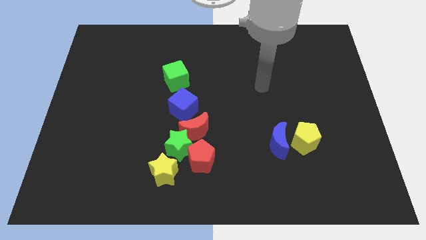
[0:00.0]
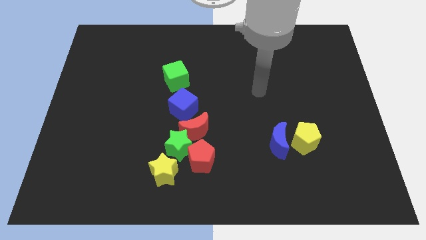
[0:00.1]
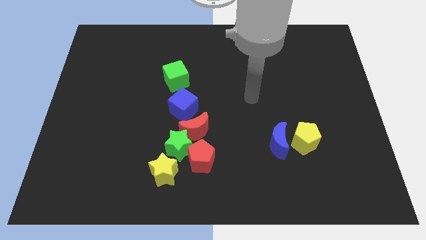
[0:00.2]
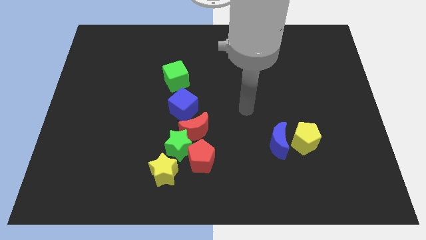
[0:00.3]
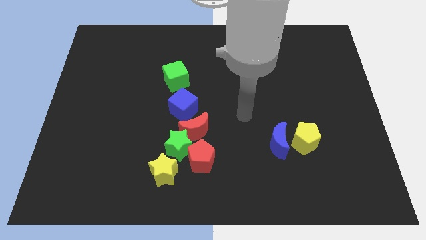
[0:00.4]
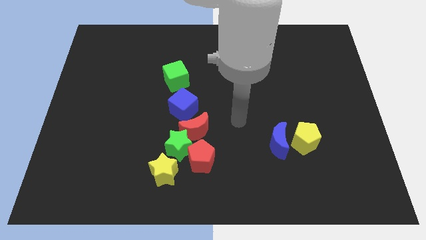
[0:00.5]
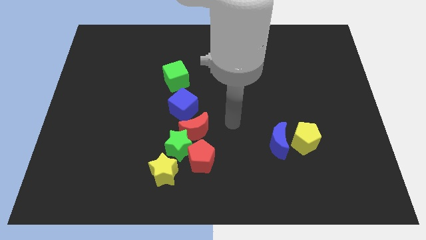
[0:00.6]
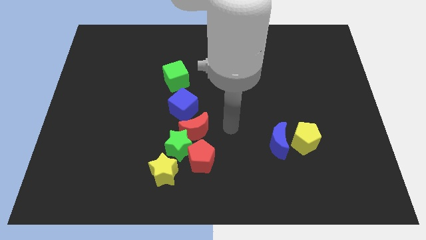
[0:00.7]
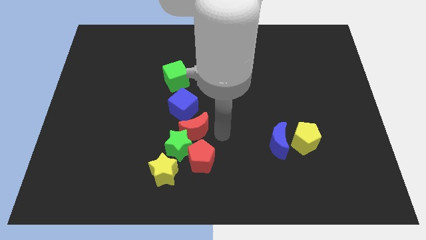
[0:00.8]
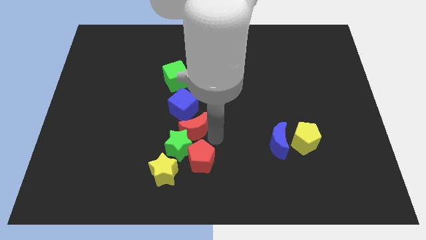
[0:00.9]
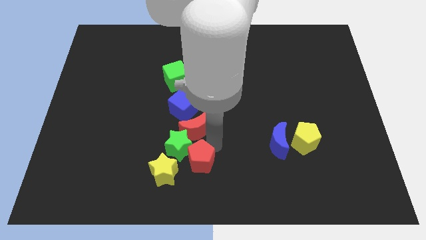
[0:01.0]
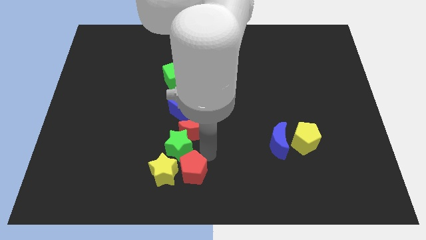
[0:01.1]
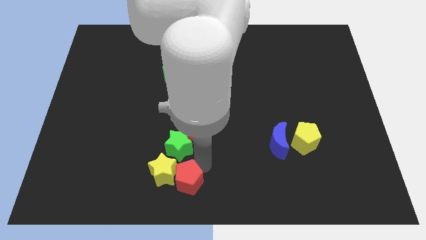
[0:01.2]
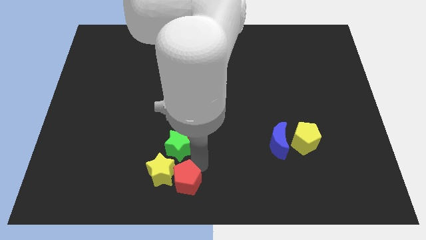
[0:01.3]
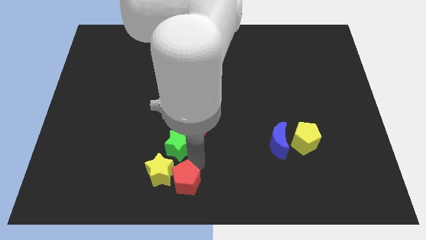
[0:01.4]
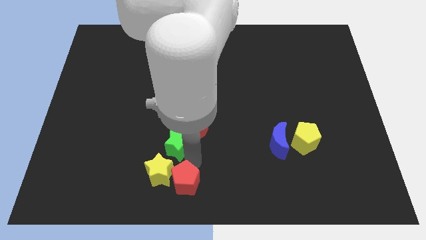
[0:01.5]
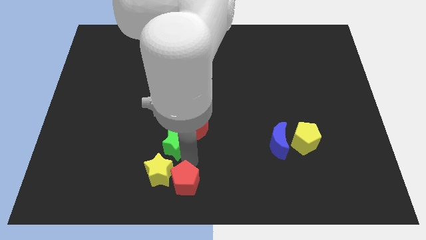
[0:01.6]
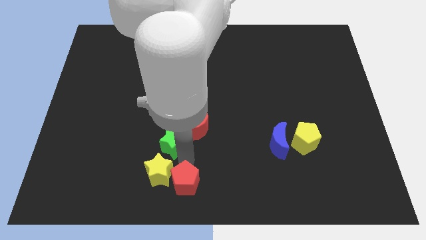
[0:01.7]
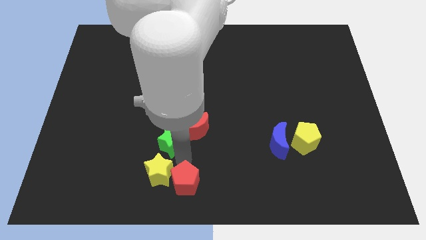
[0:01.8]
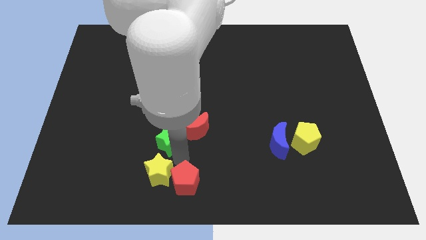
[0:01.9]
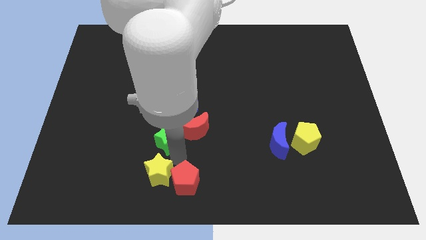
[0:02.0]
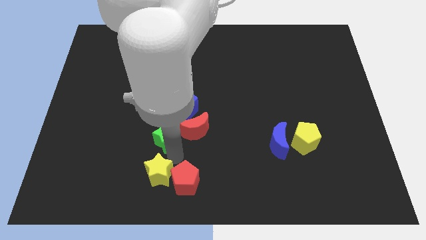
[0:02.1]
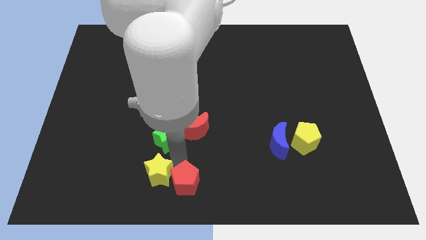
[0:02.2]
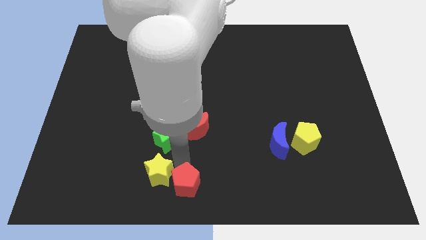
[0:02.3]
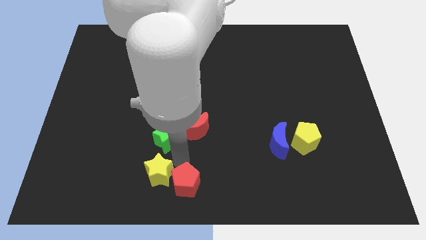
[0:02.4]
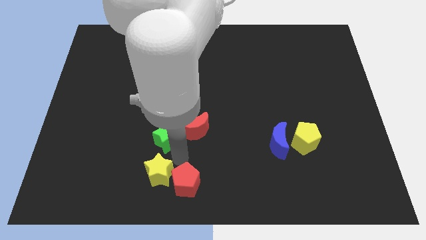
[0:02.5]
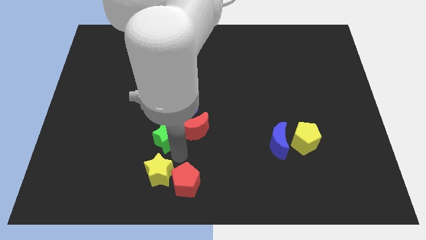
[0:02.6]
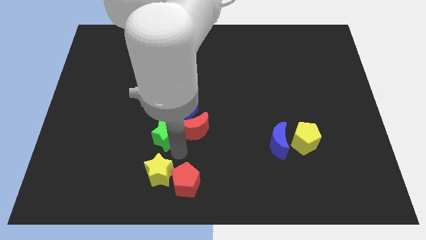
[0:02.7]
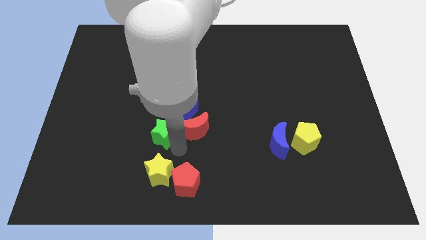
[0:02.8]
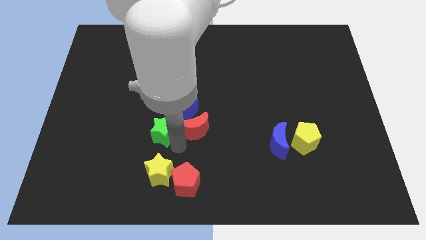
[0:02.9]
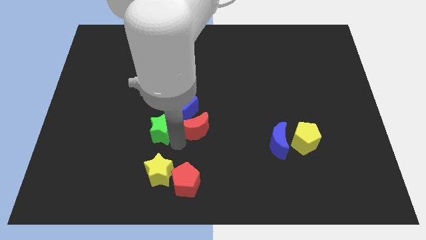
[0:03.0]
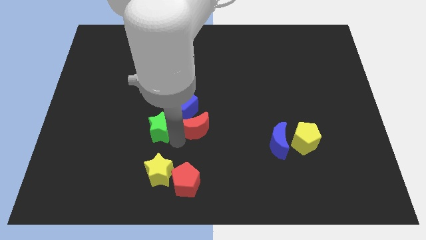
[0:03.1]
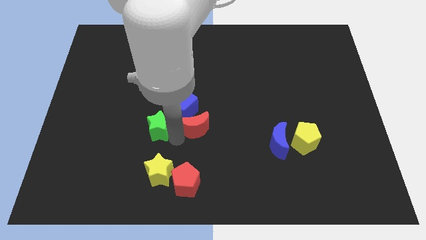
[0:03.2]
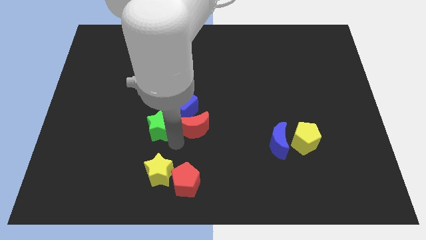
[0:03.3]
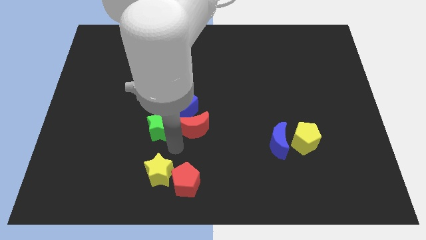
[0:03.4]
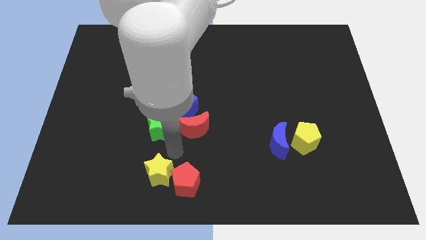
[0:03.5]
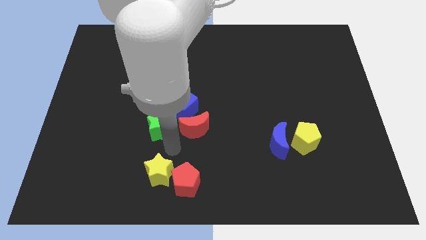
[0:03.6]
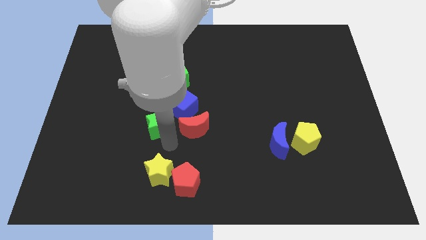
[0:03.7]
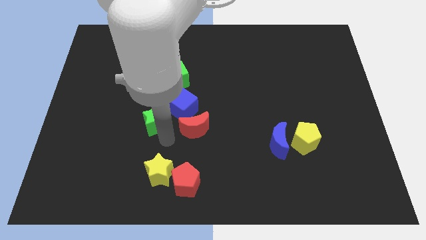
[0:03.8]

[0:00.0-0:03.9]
move the green star away from the red pentagon, red moon, and yellow star

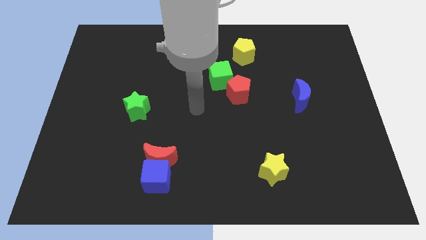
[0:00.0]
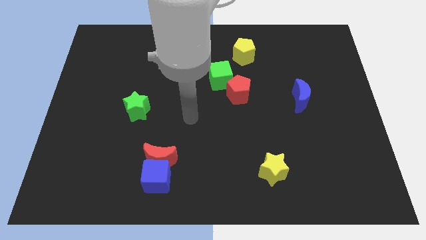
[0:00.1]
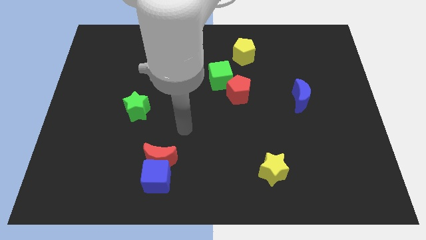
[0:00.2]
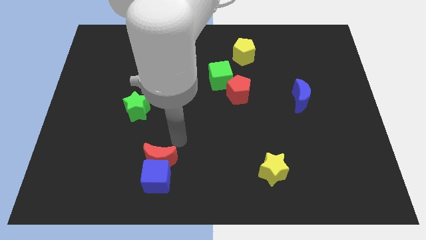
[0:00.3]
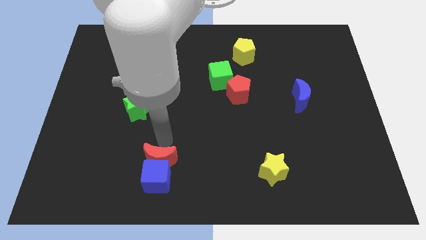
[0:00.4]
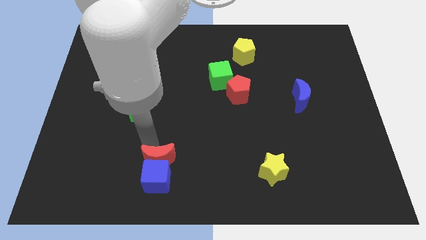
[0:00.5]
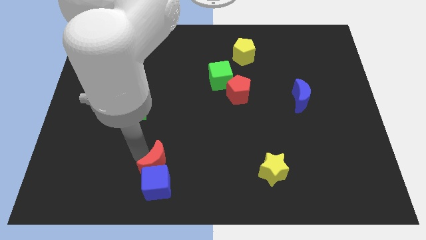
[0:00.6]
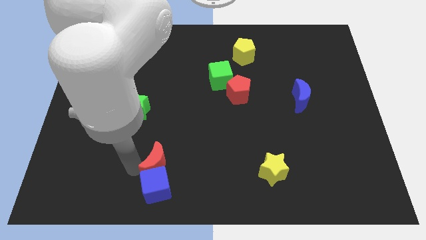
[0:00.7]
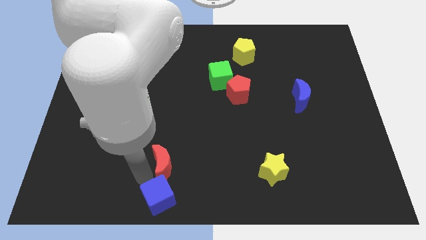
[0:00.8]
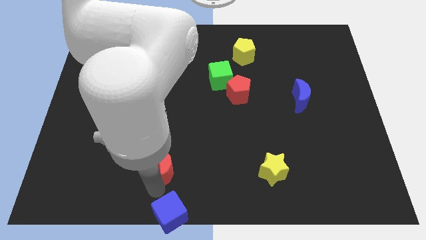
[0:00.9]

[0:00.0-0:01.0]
move the red moon away from the blue cube

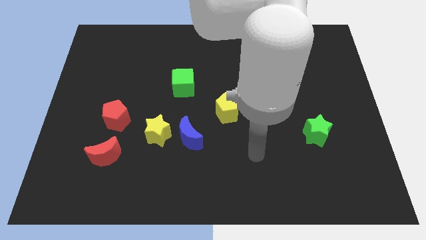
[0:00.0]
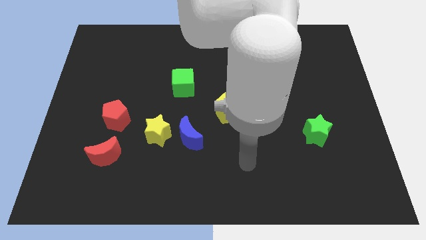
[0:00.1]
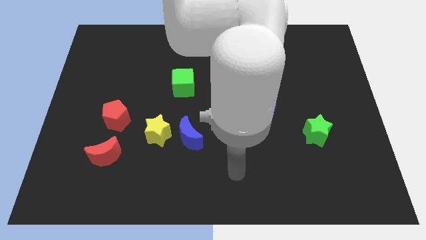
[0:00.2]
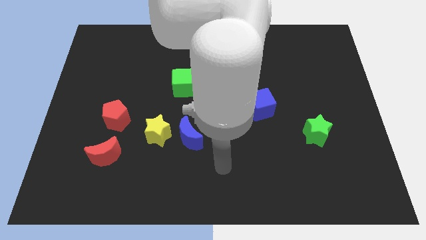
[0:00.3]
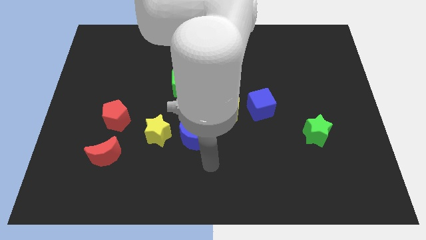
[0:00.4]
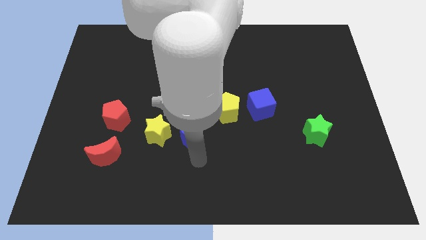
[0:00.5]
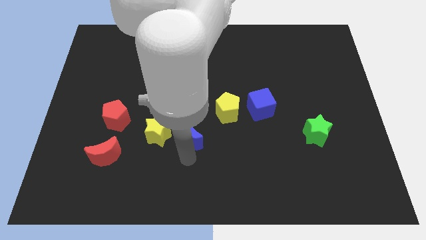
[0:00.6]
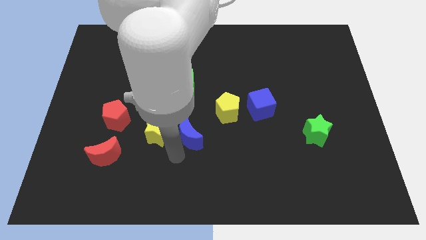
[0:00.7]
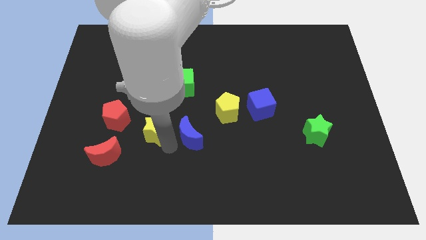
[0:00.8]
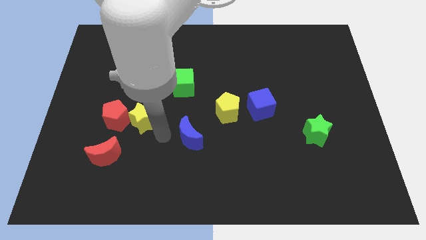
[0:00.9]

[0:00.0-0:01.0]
move the blue moon away from the yellow star

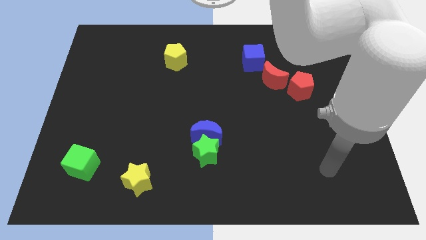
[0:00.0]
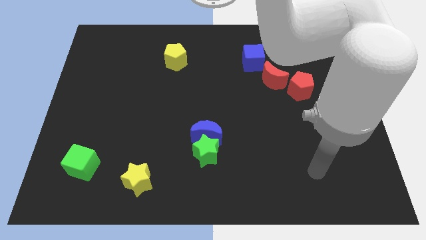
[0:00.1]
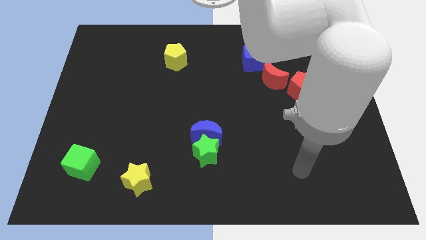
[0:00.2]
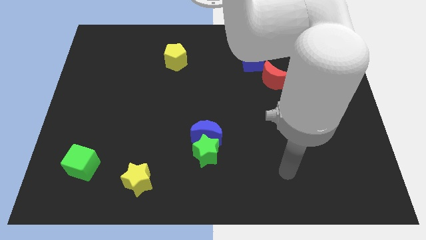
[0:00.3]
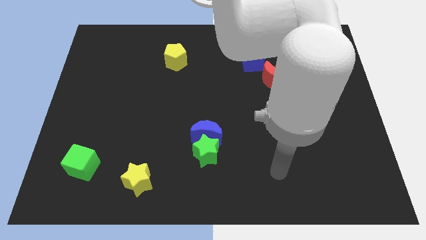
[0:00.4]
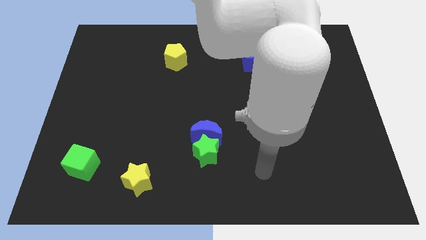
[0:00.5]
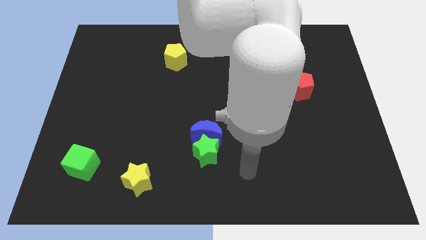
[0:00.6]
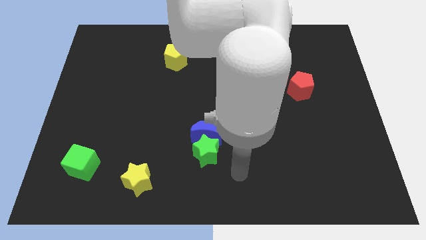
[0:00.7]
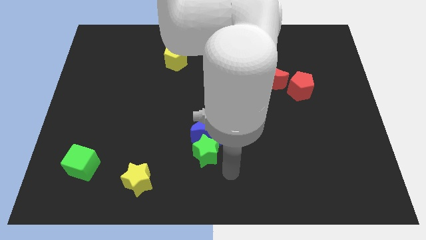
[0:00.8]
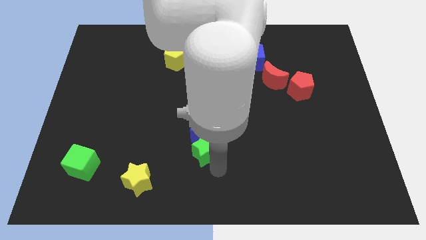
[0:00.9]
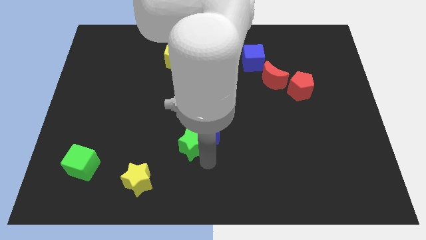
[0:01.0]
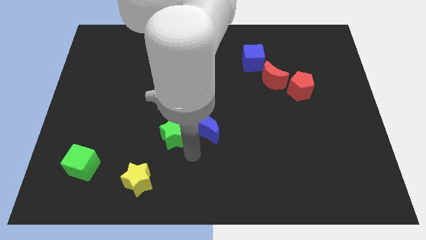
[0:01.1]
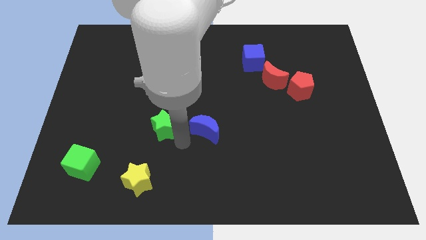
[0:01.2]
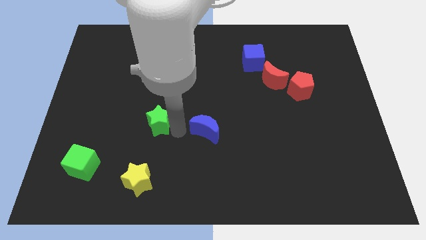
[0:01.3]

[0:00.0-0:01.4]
move the blue moon away from the green star

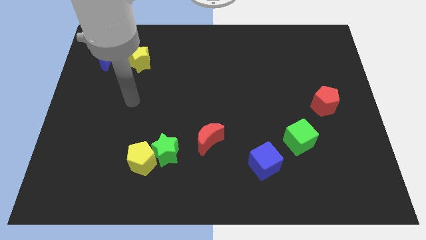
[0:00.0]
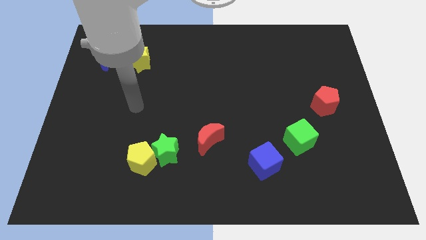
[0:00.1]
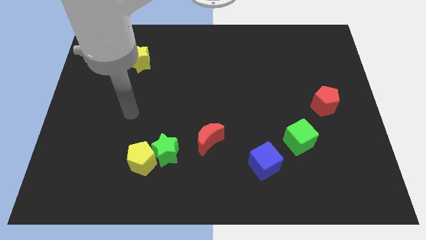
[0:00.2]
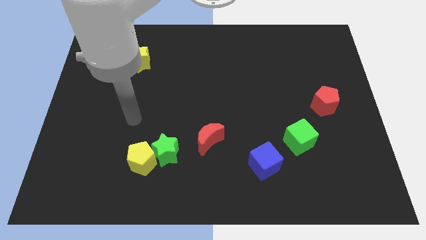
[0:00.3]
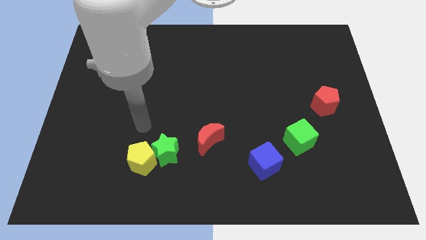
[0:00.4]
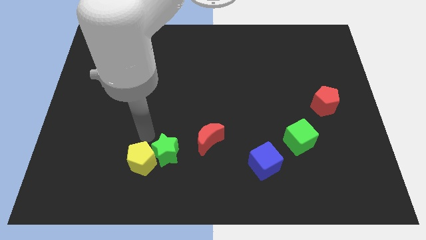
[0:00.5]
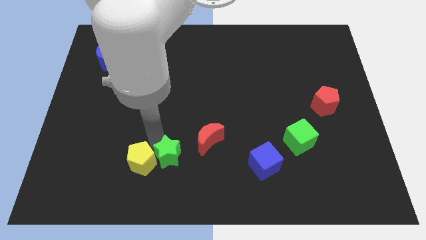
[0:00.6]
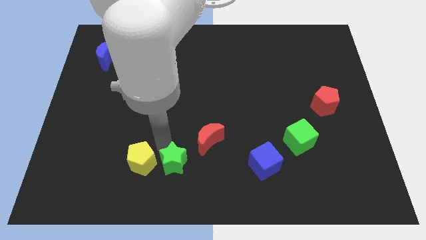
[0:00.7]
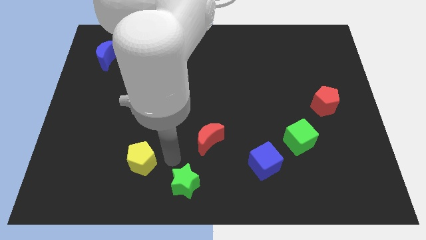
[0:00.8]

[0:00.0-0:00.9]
separate the yellow pentagon from the green star

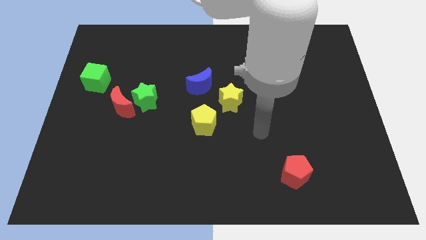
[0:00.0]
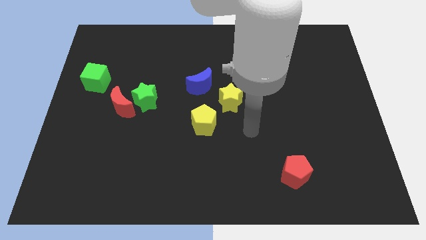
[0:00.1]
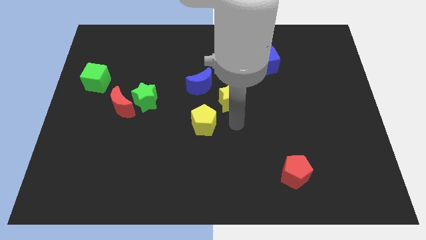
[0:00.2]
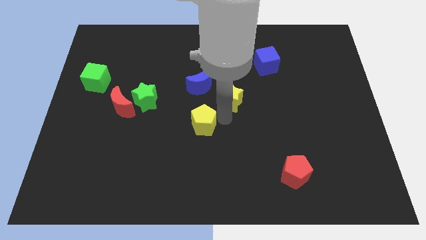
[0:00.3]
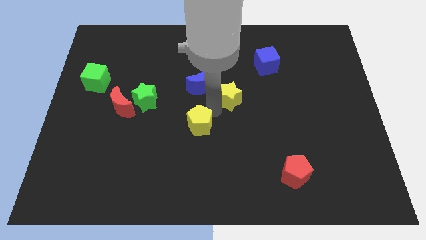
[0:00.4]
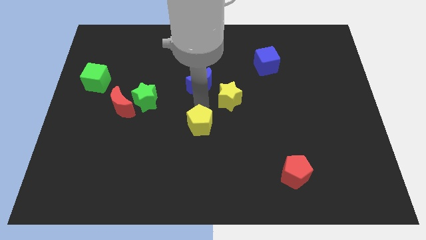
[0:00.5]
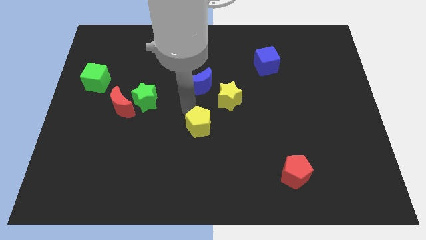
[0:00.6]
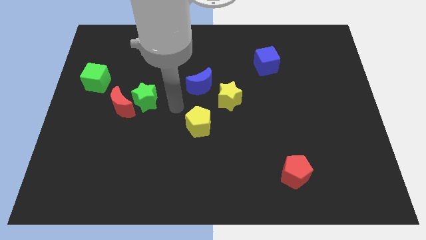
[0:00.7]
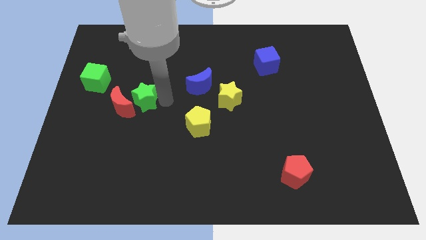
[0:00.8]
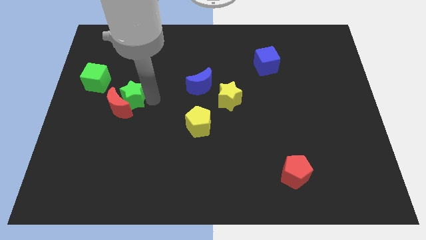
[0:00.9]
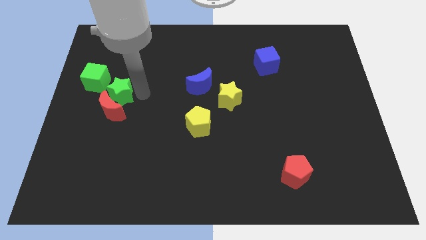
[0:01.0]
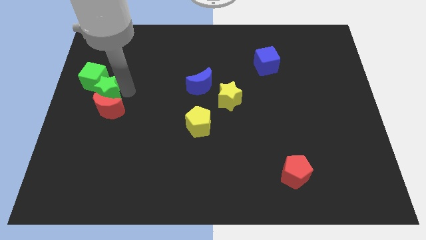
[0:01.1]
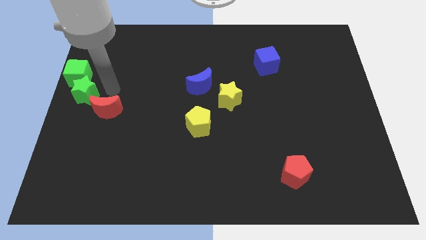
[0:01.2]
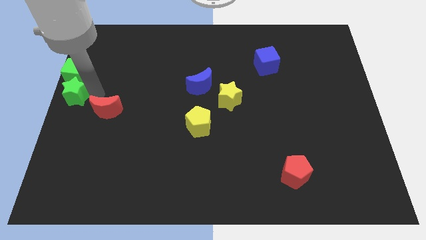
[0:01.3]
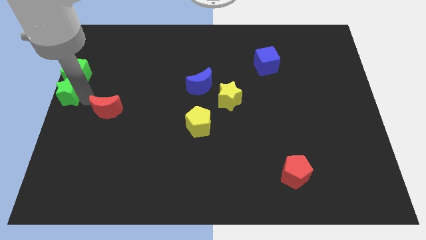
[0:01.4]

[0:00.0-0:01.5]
pull the red moon apart from the green star
